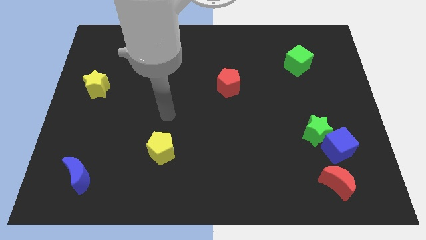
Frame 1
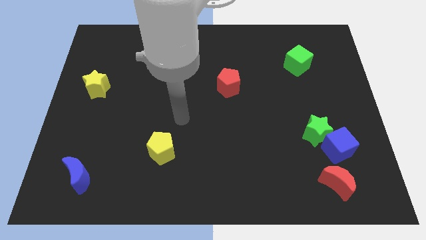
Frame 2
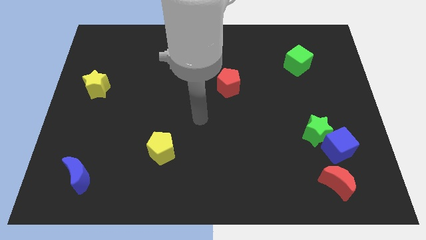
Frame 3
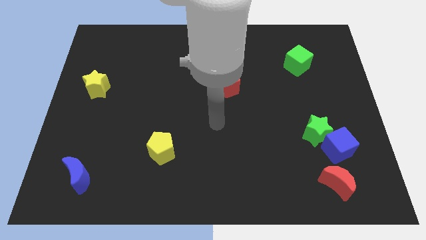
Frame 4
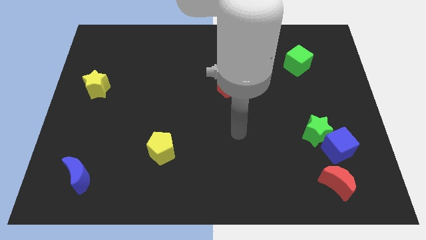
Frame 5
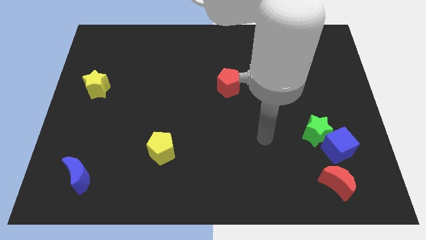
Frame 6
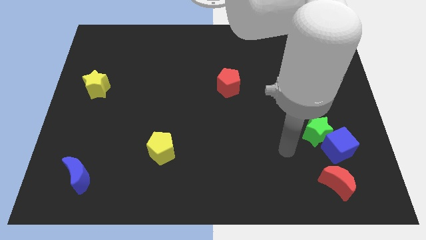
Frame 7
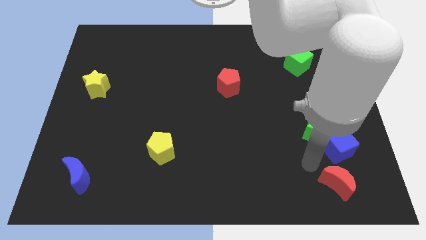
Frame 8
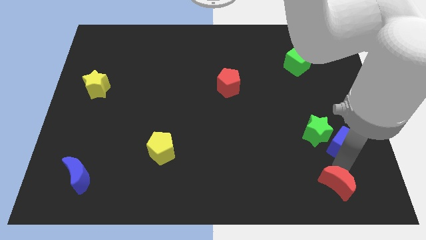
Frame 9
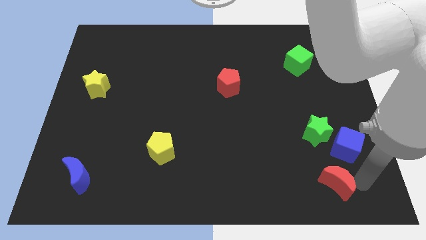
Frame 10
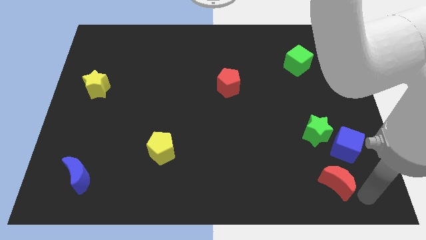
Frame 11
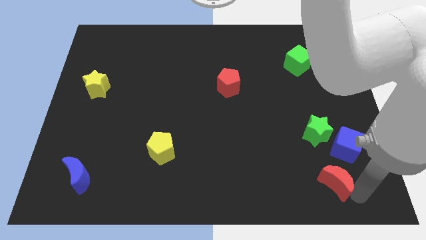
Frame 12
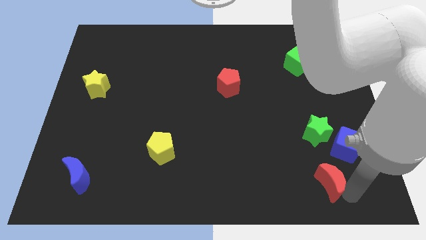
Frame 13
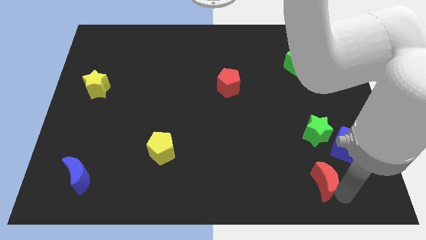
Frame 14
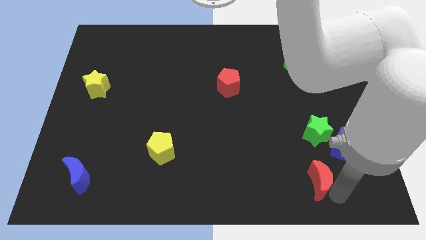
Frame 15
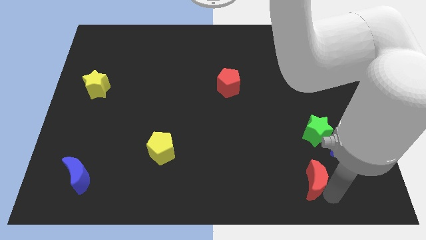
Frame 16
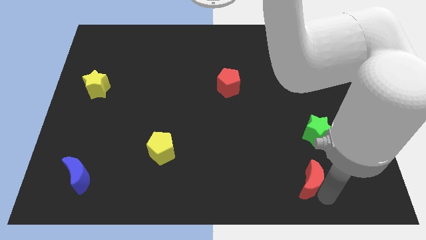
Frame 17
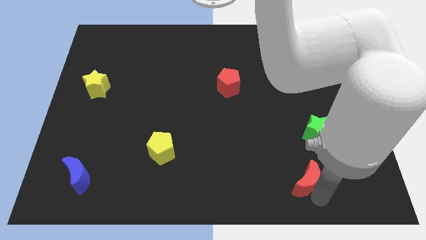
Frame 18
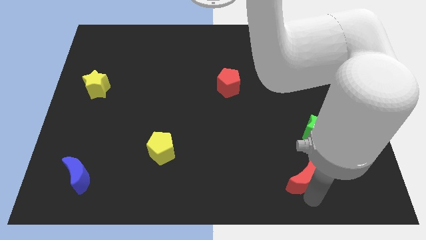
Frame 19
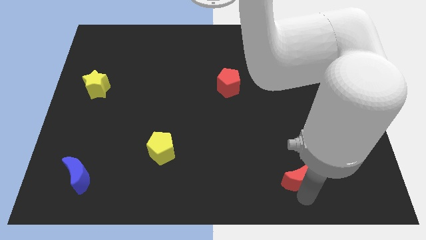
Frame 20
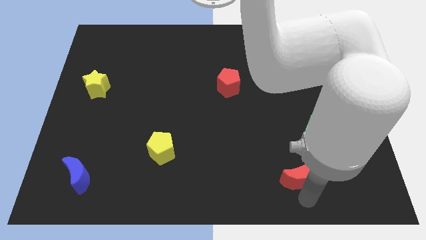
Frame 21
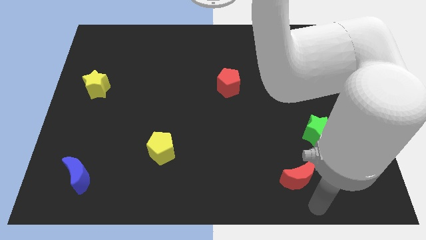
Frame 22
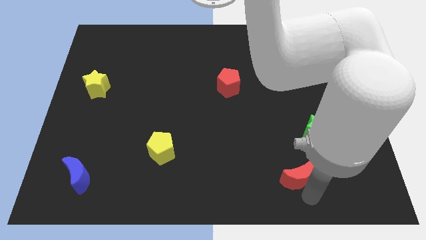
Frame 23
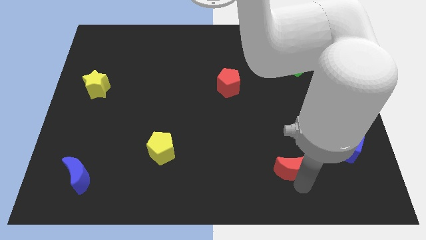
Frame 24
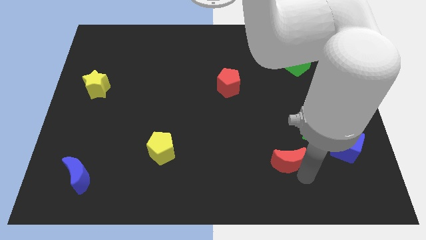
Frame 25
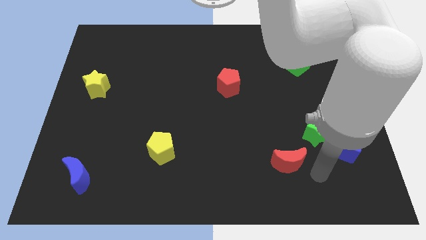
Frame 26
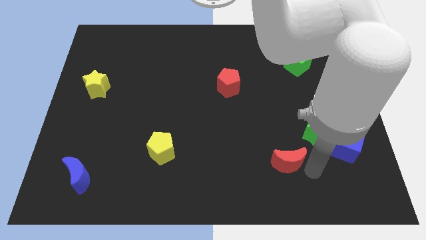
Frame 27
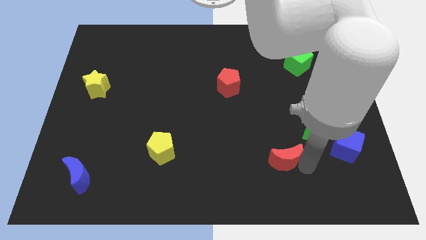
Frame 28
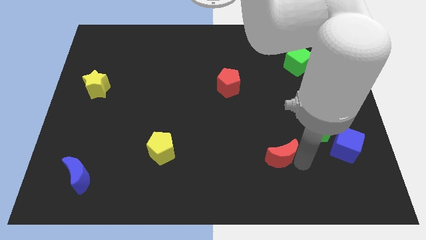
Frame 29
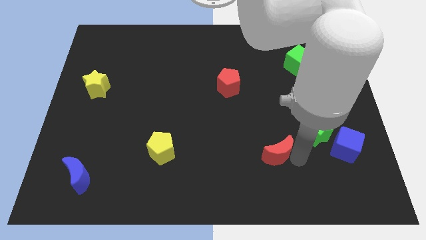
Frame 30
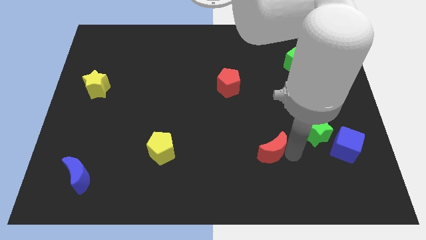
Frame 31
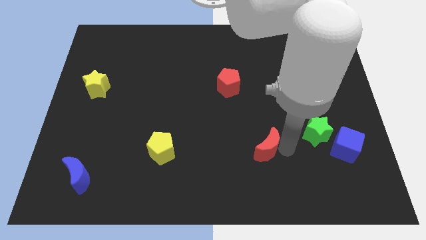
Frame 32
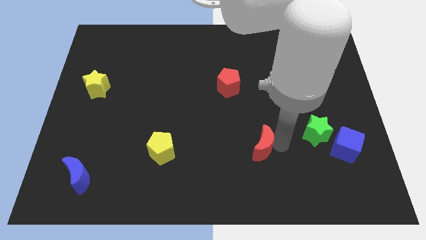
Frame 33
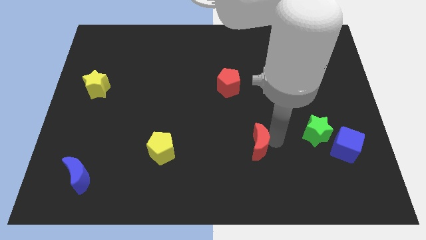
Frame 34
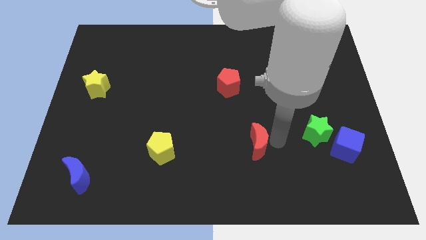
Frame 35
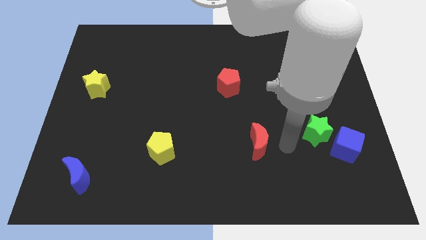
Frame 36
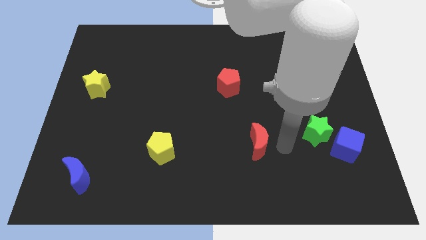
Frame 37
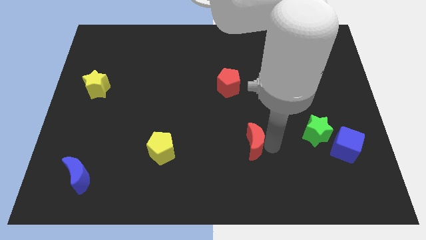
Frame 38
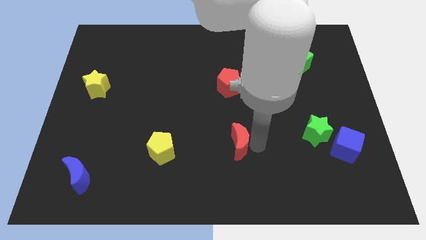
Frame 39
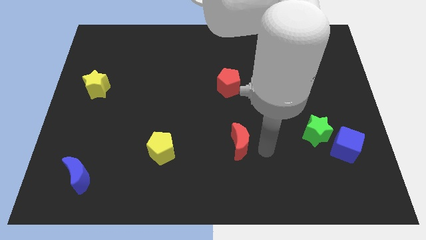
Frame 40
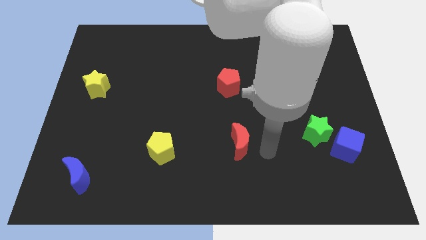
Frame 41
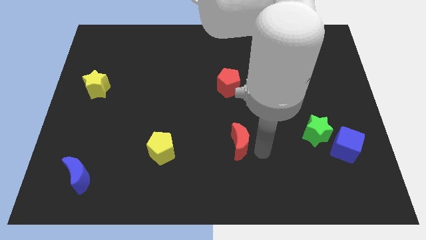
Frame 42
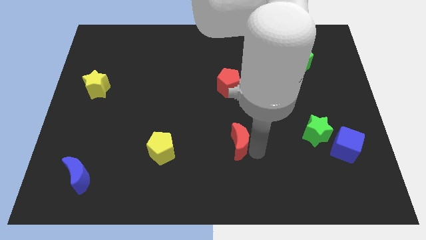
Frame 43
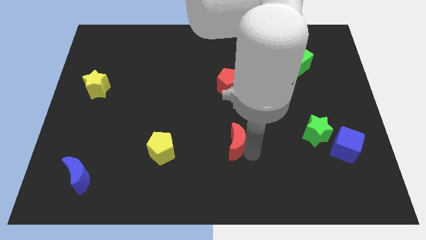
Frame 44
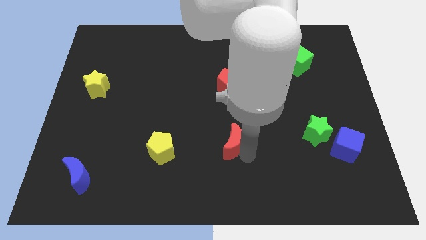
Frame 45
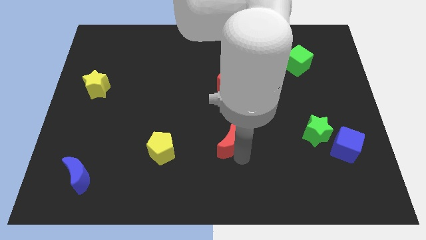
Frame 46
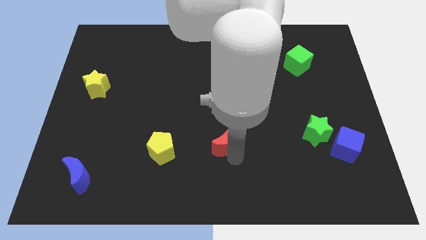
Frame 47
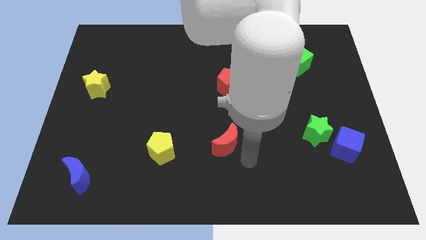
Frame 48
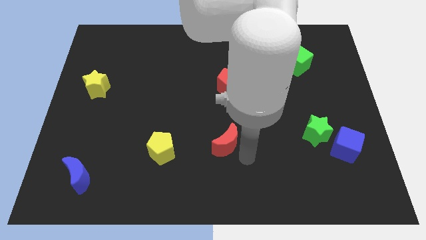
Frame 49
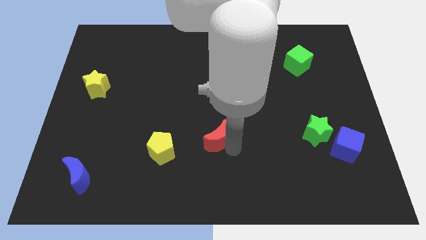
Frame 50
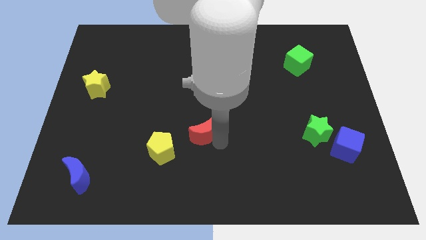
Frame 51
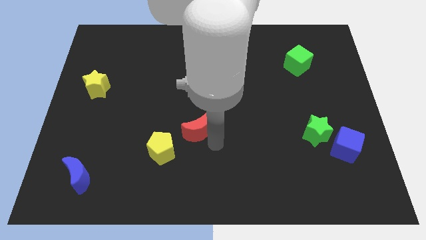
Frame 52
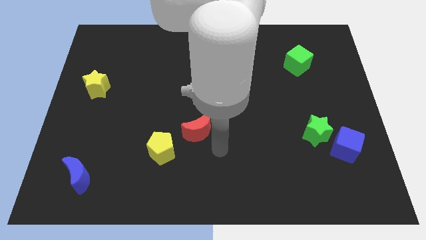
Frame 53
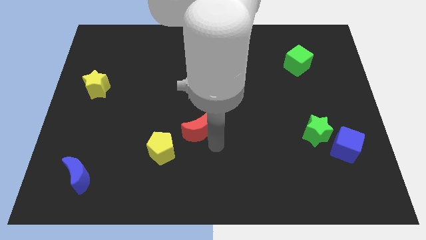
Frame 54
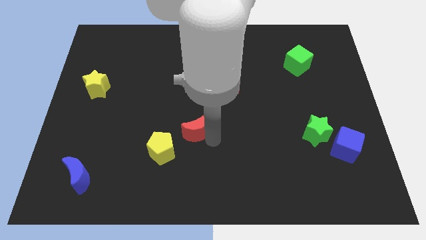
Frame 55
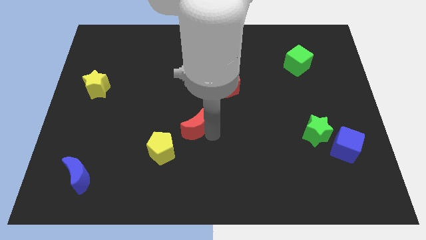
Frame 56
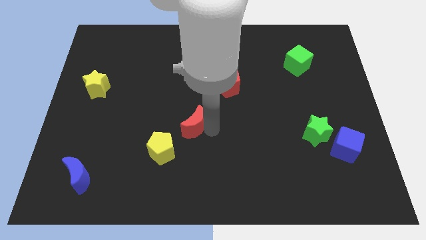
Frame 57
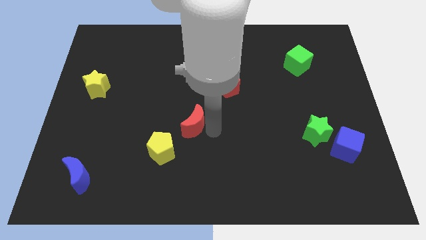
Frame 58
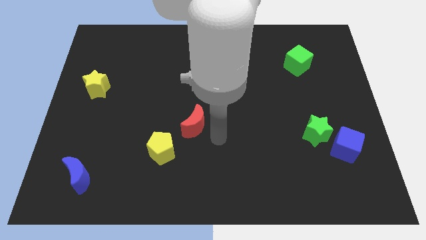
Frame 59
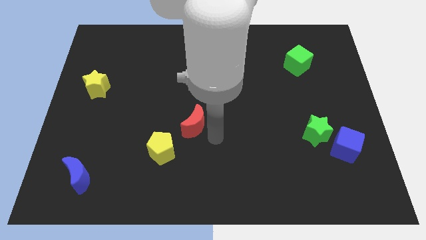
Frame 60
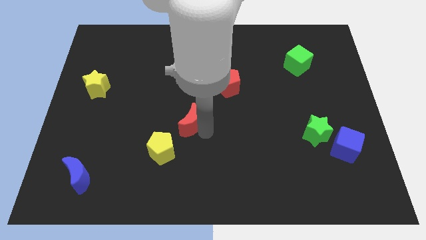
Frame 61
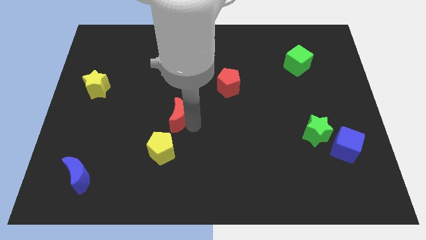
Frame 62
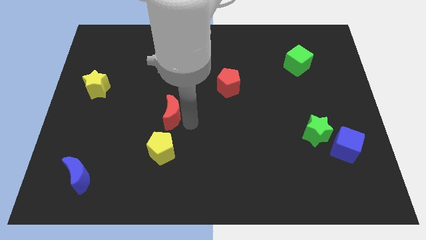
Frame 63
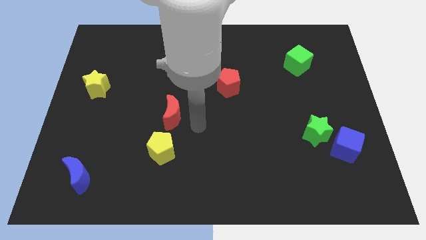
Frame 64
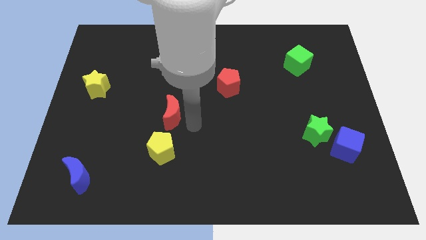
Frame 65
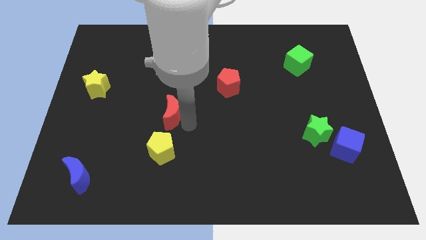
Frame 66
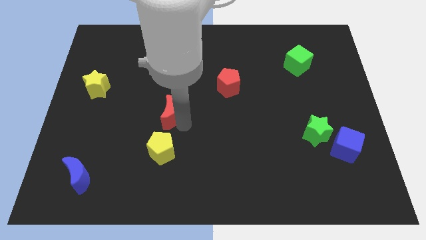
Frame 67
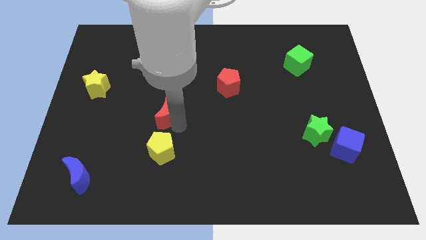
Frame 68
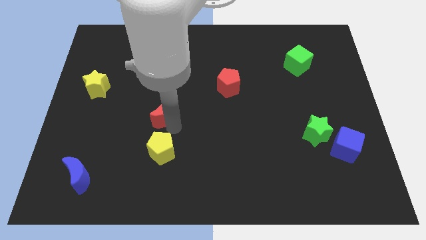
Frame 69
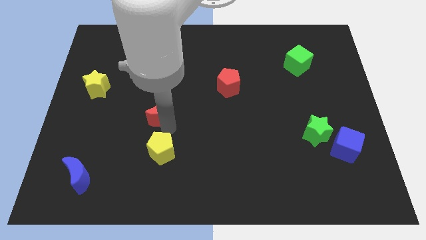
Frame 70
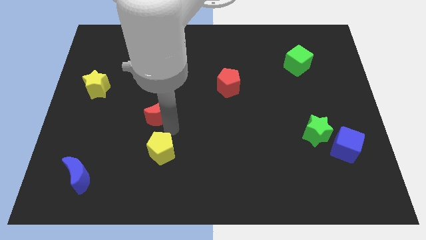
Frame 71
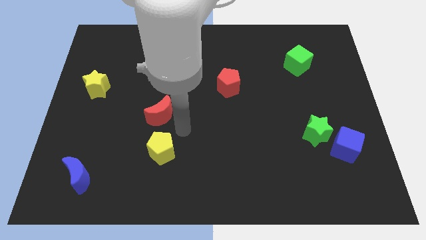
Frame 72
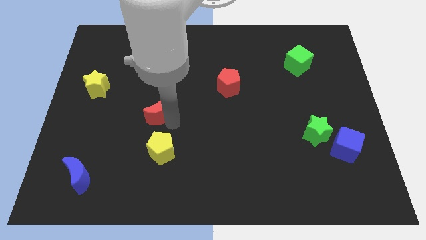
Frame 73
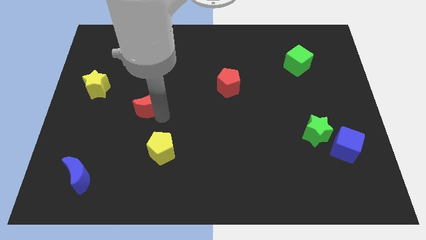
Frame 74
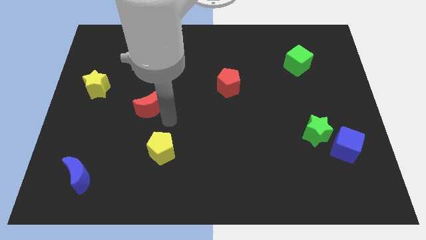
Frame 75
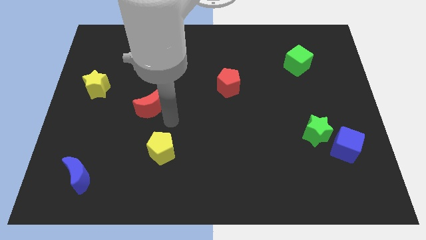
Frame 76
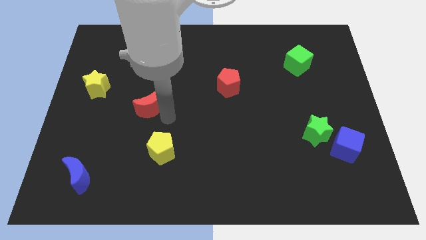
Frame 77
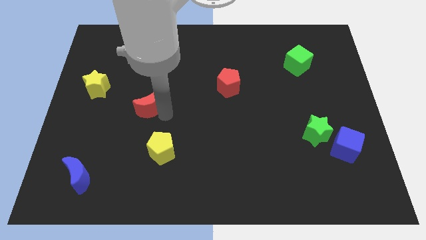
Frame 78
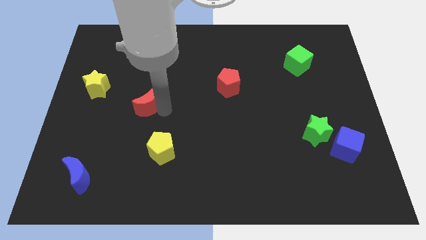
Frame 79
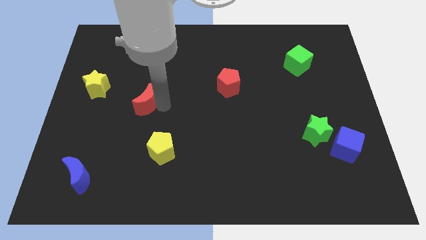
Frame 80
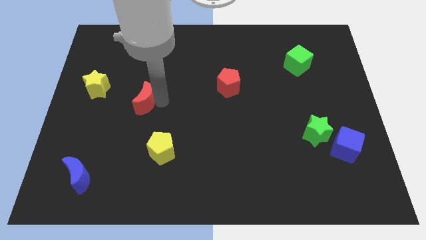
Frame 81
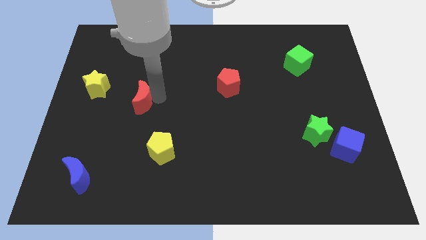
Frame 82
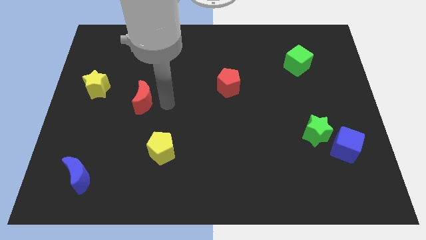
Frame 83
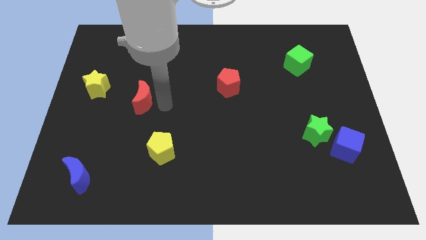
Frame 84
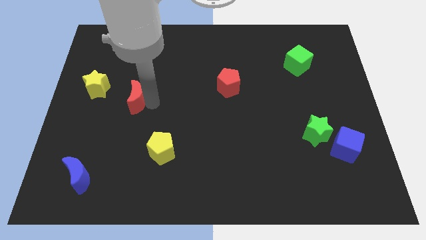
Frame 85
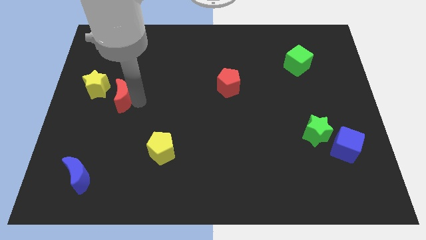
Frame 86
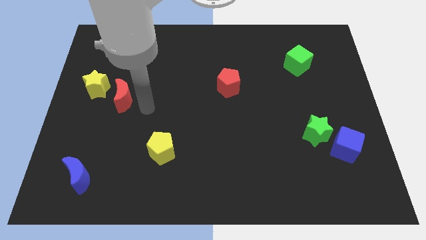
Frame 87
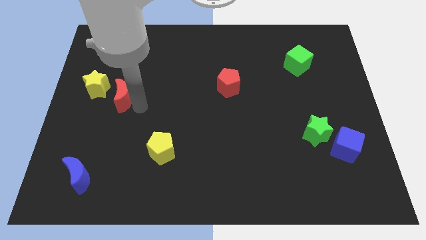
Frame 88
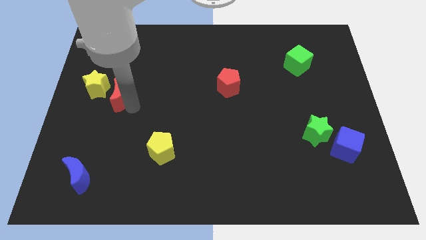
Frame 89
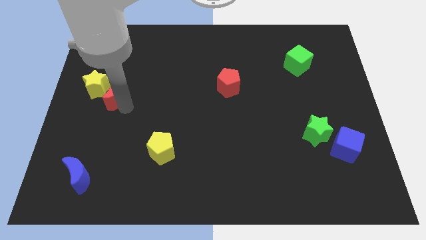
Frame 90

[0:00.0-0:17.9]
slide the red moon to the yellow star
